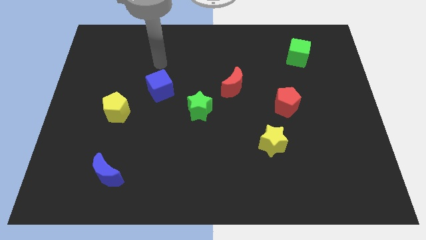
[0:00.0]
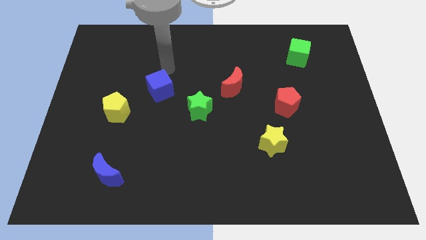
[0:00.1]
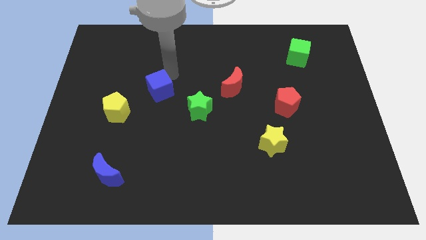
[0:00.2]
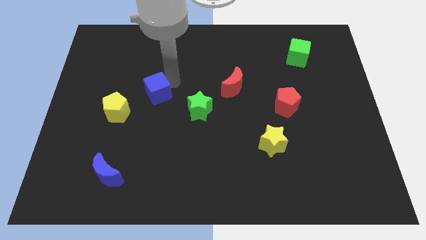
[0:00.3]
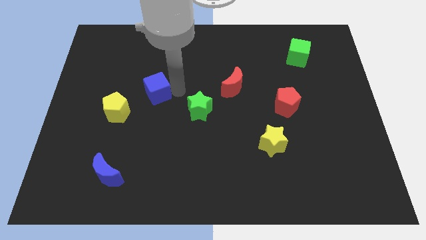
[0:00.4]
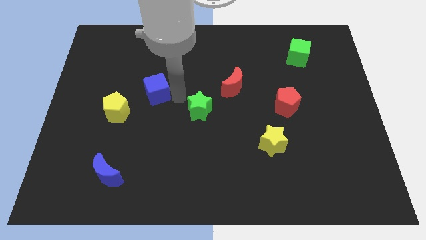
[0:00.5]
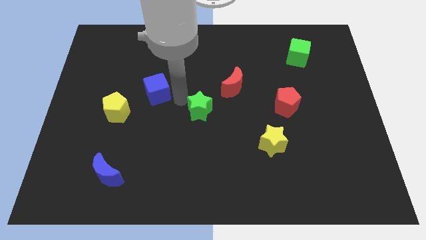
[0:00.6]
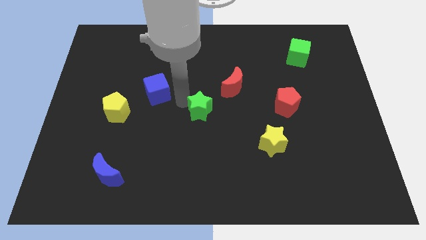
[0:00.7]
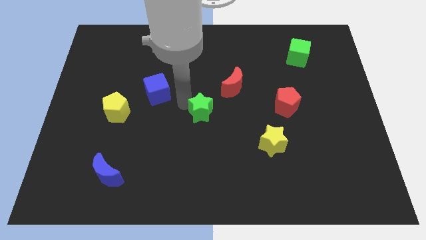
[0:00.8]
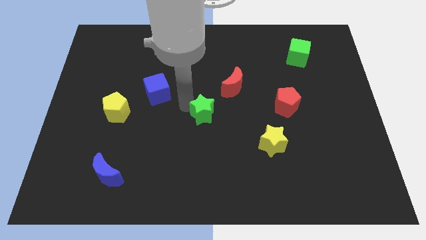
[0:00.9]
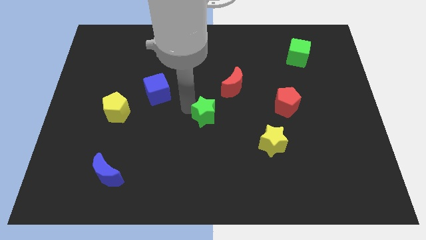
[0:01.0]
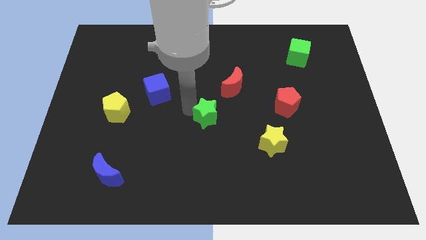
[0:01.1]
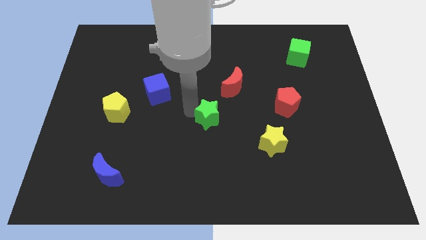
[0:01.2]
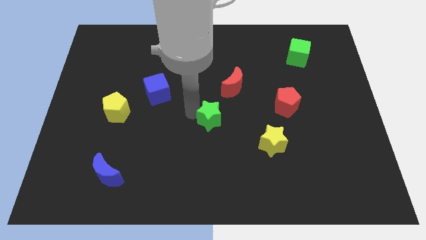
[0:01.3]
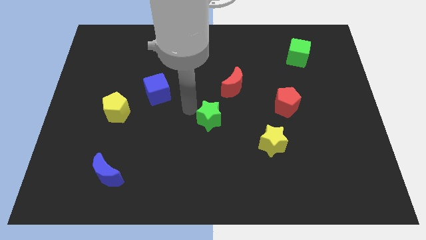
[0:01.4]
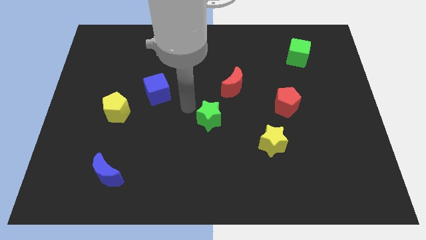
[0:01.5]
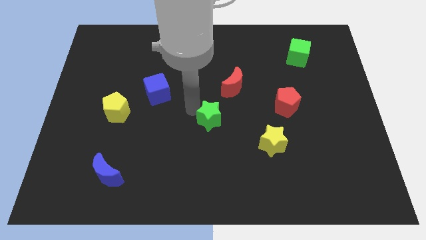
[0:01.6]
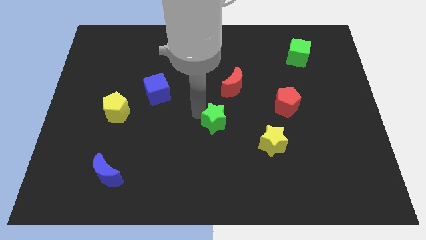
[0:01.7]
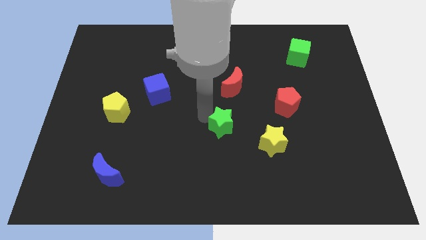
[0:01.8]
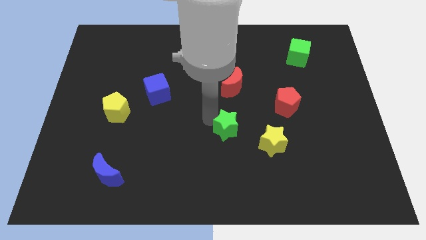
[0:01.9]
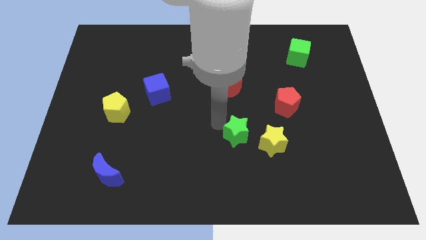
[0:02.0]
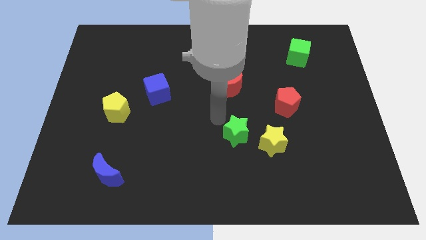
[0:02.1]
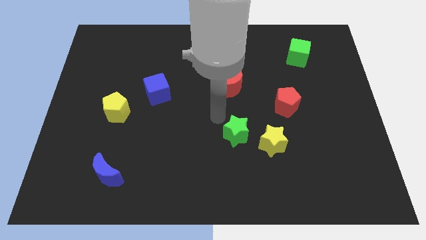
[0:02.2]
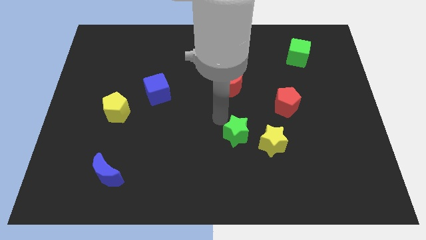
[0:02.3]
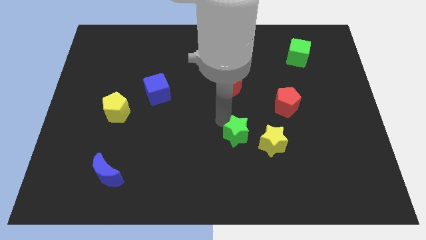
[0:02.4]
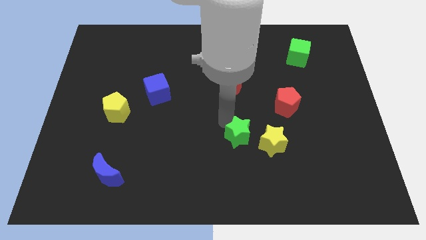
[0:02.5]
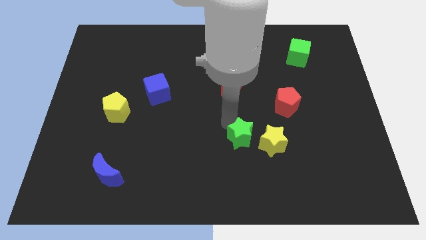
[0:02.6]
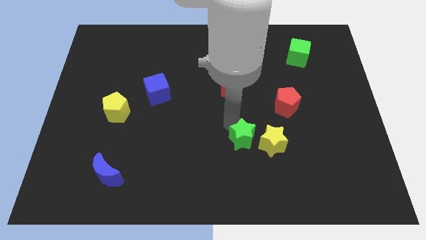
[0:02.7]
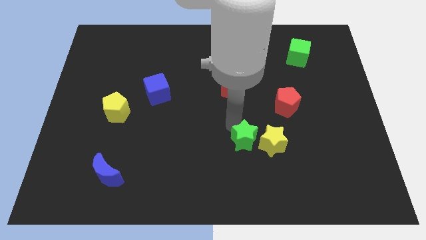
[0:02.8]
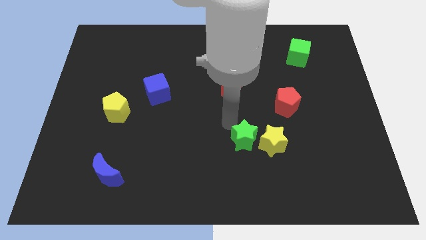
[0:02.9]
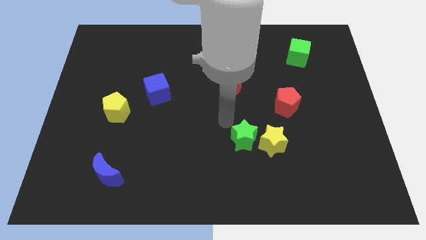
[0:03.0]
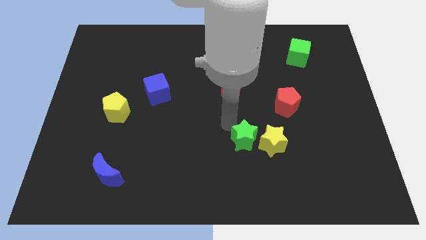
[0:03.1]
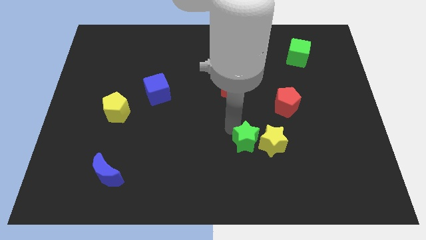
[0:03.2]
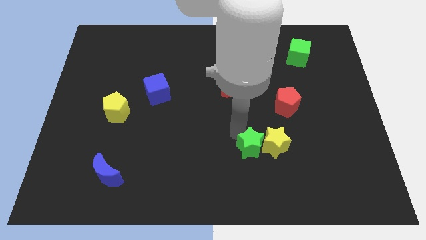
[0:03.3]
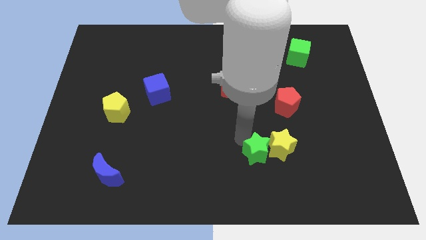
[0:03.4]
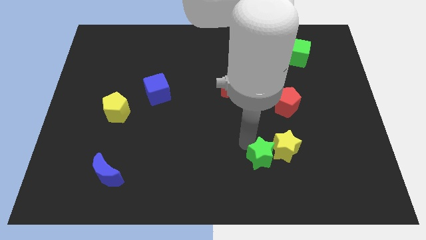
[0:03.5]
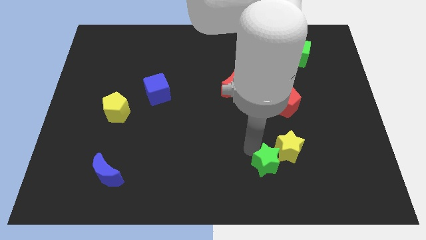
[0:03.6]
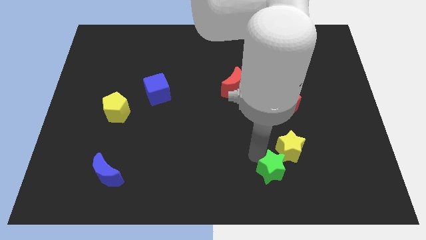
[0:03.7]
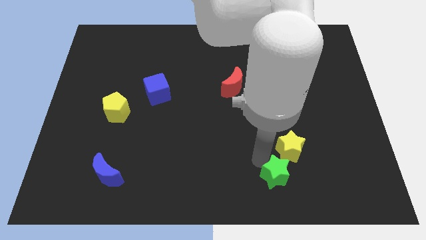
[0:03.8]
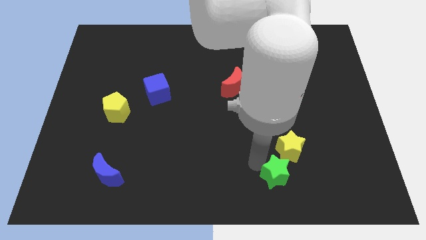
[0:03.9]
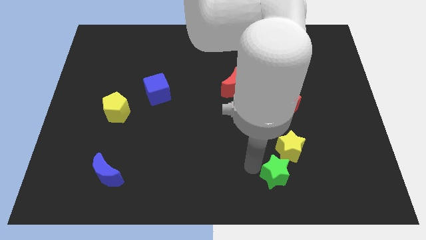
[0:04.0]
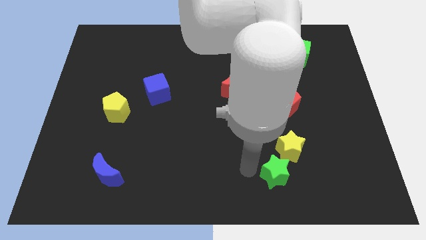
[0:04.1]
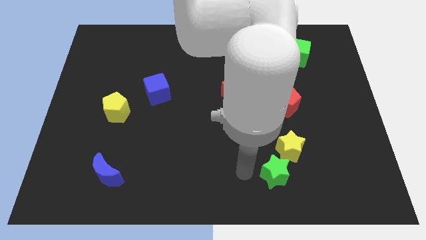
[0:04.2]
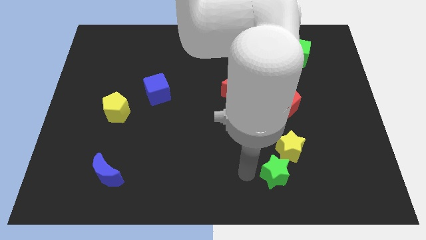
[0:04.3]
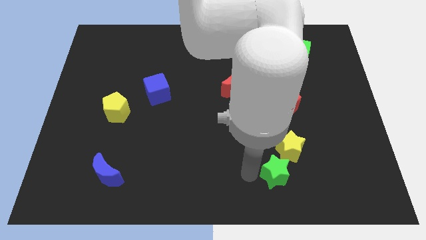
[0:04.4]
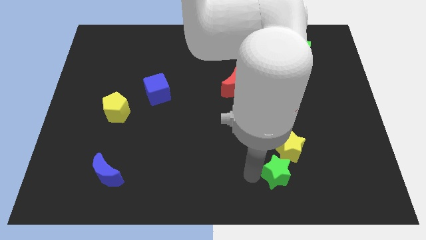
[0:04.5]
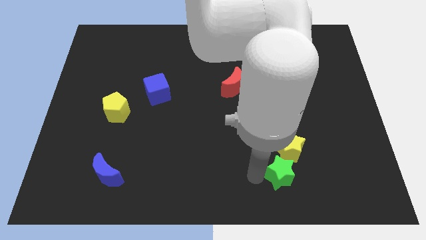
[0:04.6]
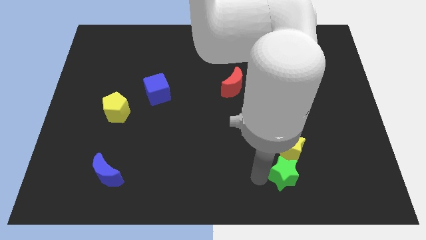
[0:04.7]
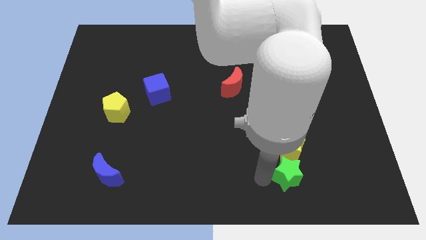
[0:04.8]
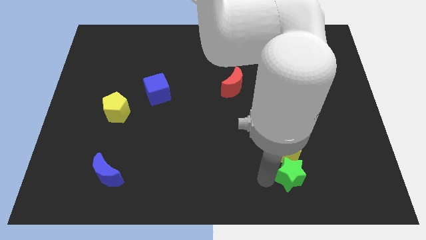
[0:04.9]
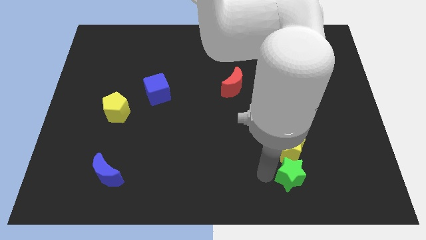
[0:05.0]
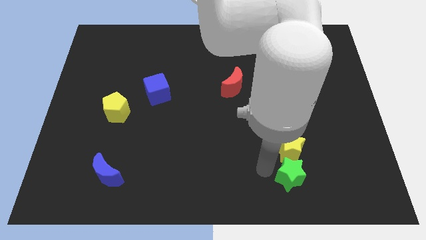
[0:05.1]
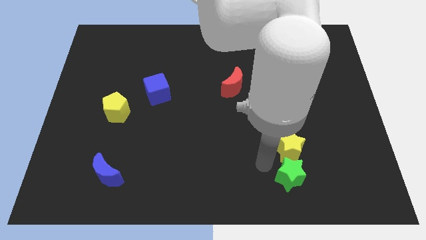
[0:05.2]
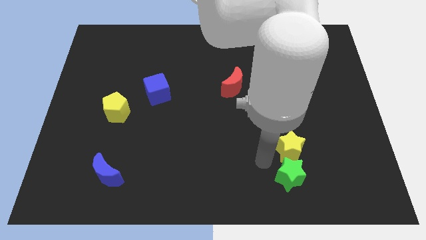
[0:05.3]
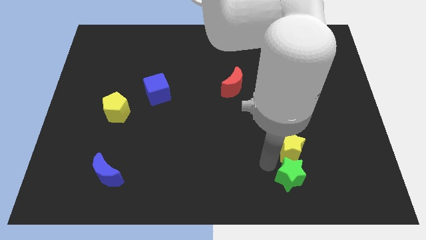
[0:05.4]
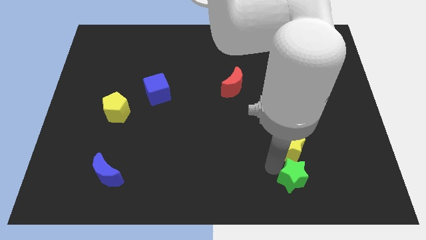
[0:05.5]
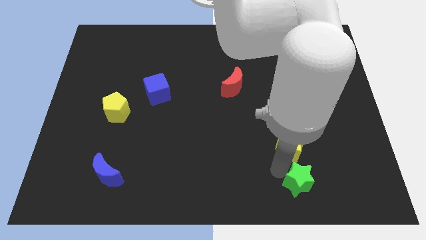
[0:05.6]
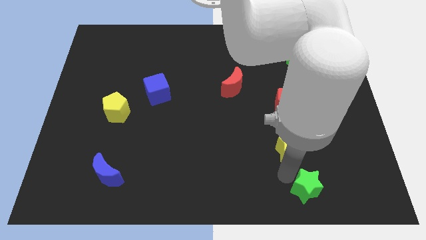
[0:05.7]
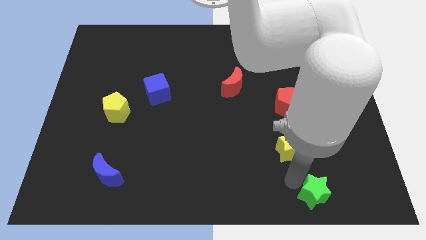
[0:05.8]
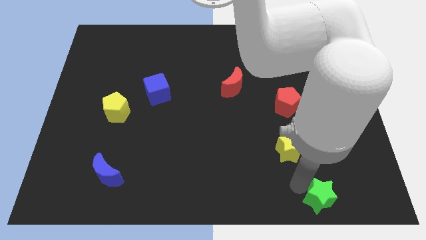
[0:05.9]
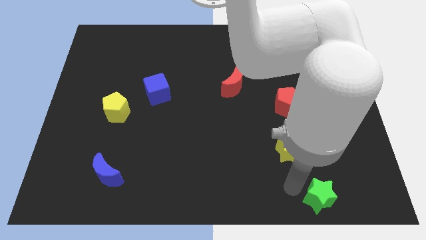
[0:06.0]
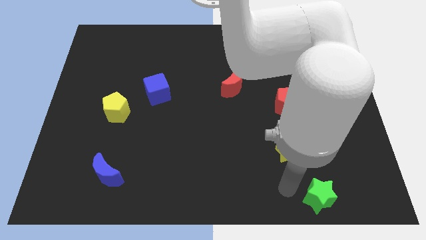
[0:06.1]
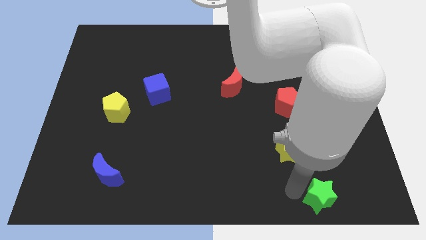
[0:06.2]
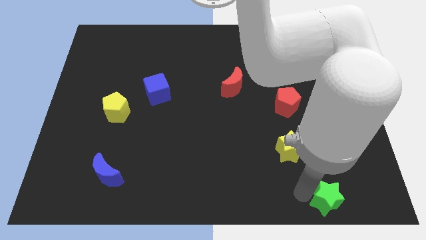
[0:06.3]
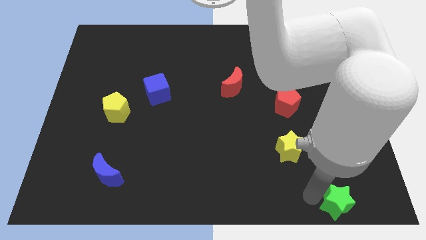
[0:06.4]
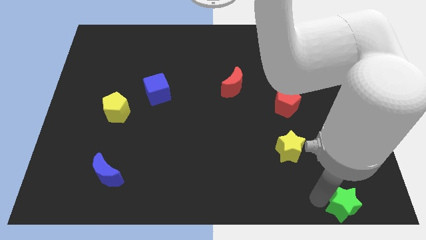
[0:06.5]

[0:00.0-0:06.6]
push the green star to the bottom right
